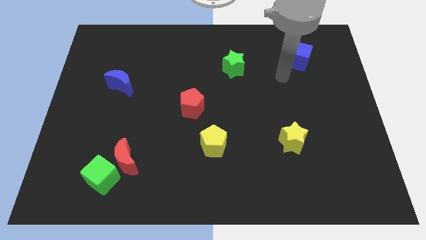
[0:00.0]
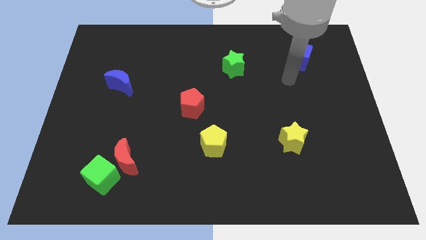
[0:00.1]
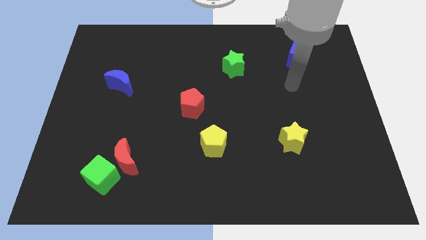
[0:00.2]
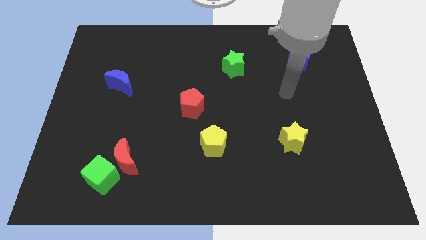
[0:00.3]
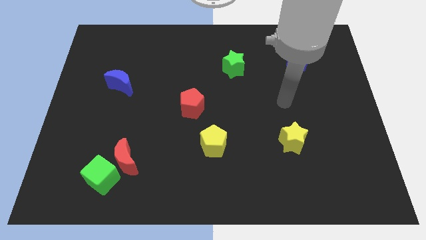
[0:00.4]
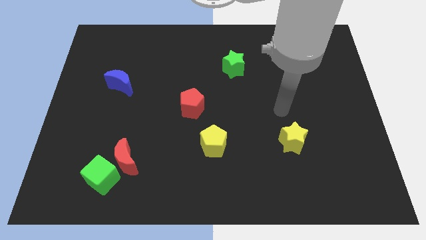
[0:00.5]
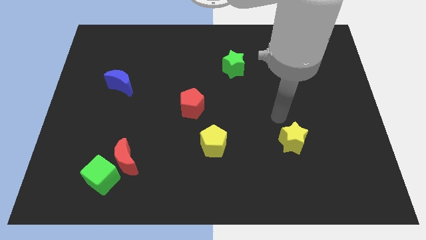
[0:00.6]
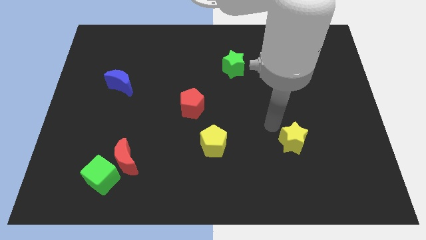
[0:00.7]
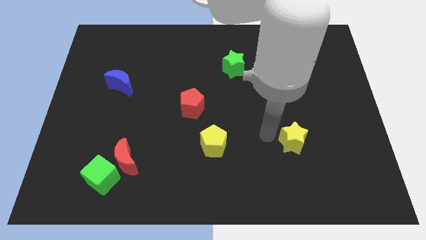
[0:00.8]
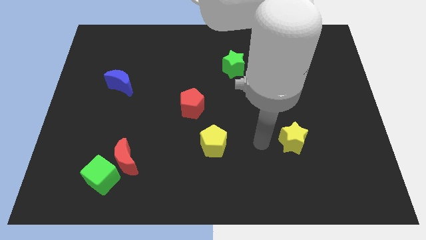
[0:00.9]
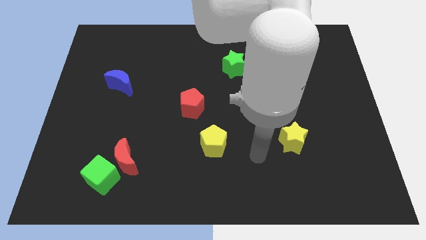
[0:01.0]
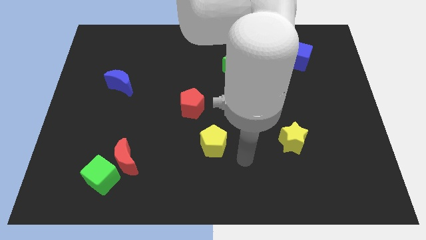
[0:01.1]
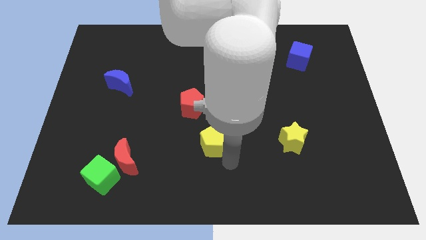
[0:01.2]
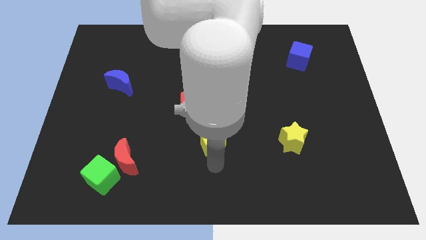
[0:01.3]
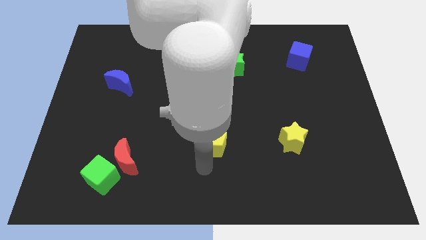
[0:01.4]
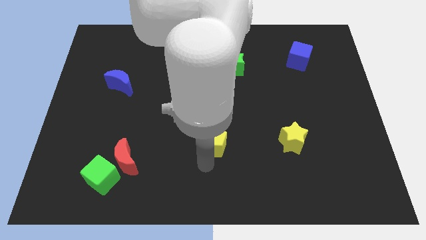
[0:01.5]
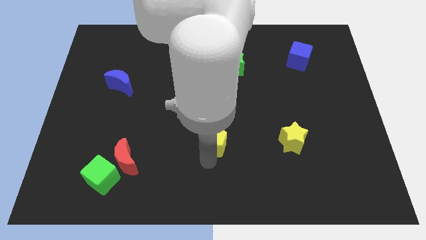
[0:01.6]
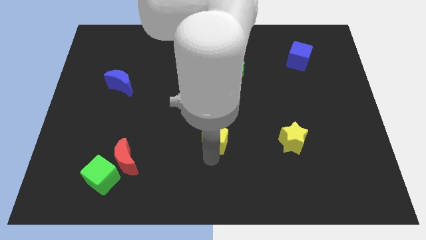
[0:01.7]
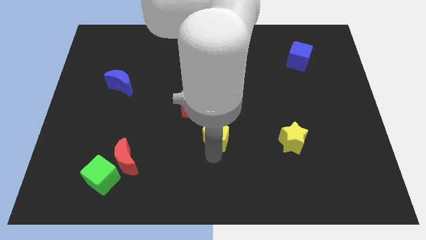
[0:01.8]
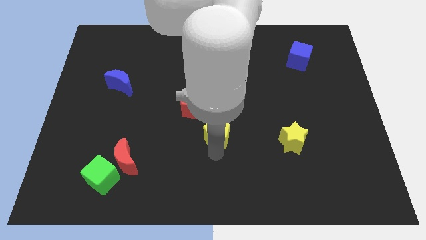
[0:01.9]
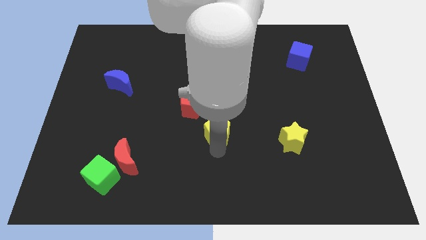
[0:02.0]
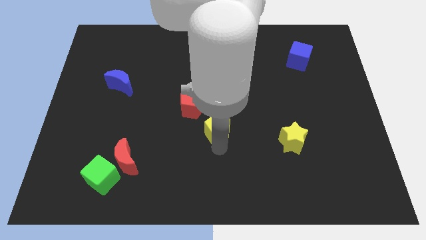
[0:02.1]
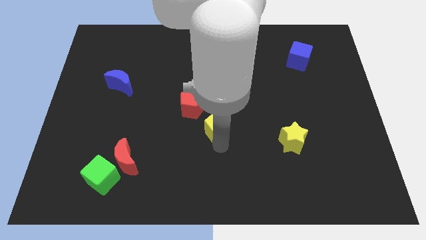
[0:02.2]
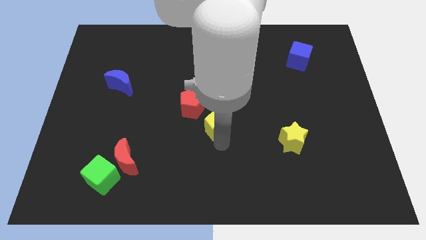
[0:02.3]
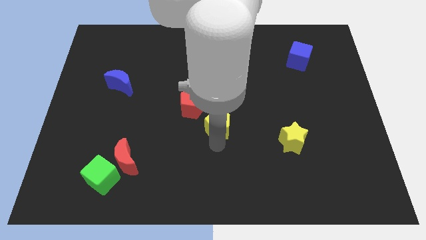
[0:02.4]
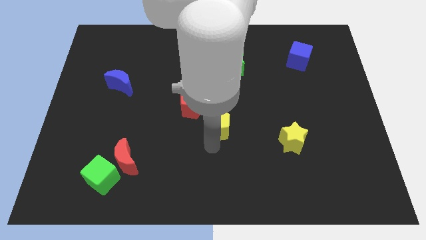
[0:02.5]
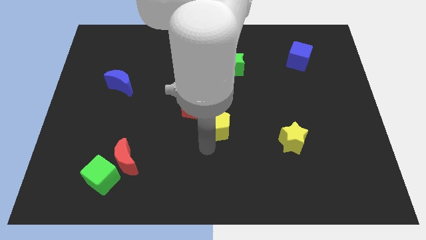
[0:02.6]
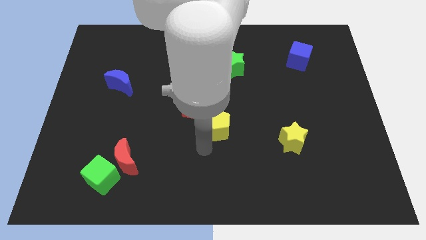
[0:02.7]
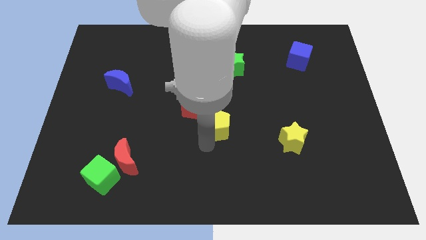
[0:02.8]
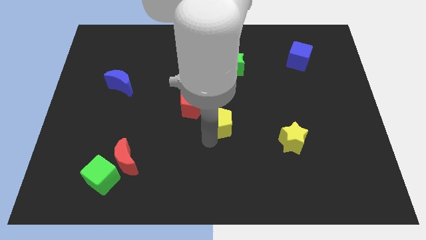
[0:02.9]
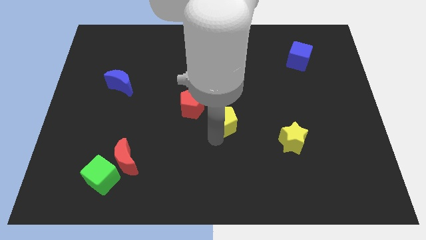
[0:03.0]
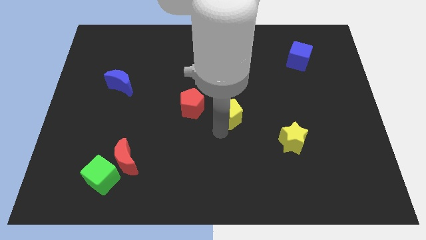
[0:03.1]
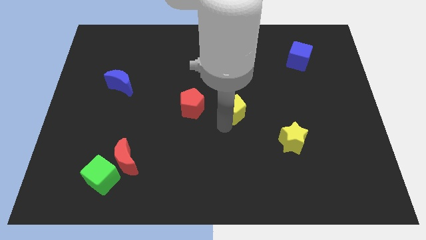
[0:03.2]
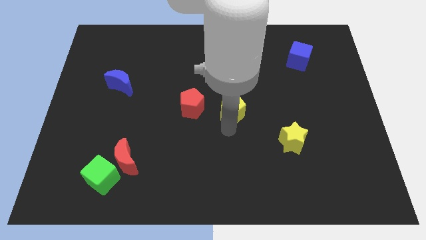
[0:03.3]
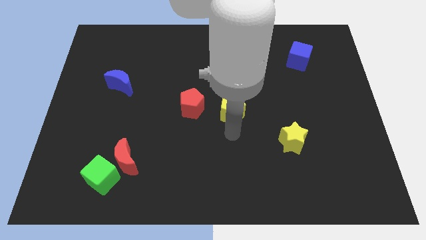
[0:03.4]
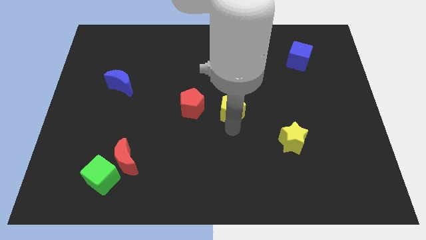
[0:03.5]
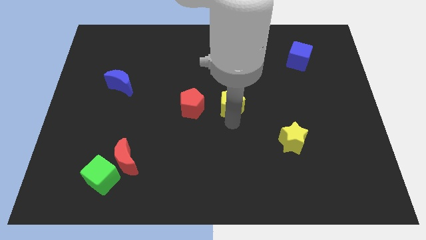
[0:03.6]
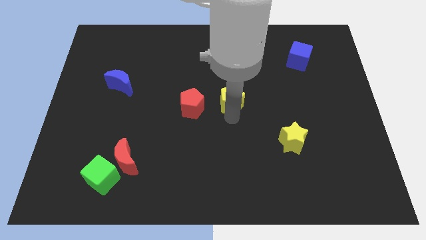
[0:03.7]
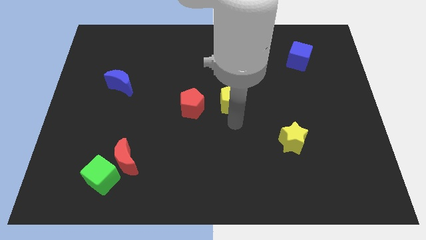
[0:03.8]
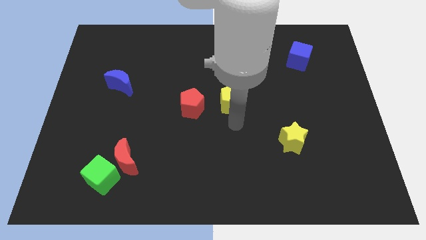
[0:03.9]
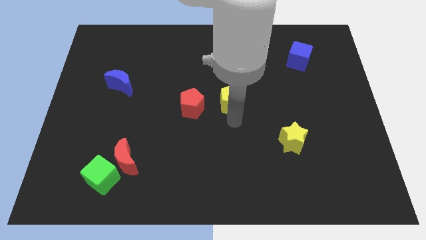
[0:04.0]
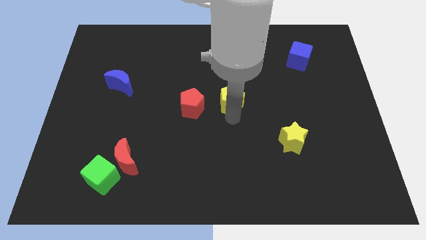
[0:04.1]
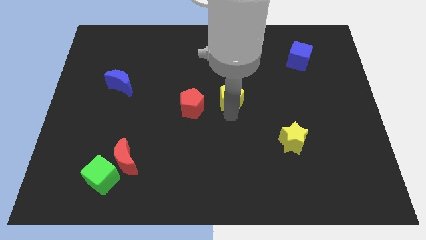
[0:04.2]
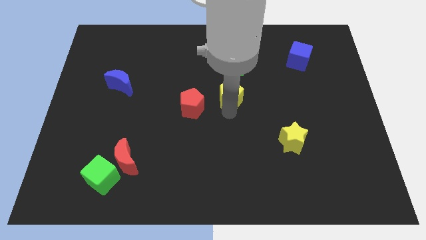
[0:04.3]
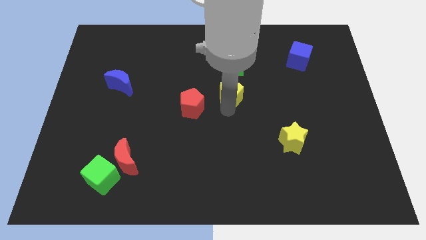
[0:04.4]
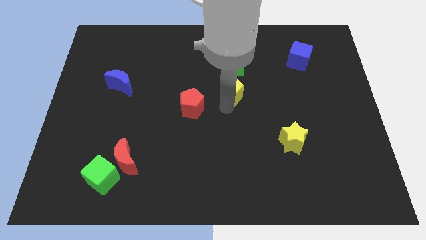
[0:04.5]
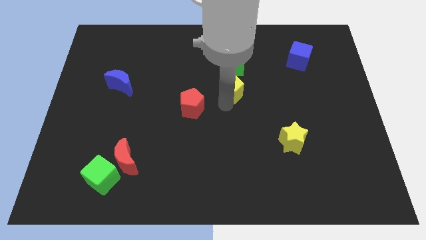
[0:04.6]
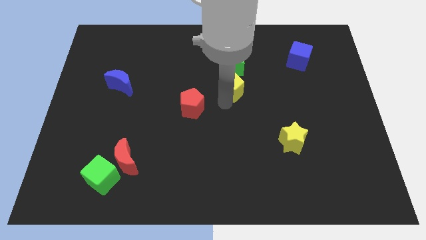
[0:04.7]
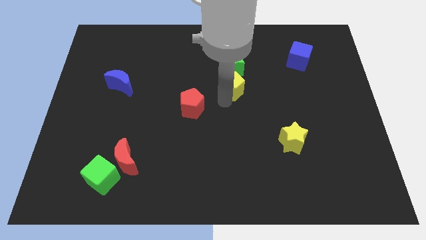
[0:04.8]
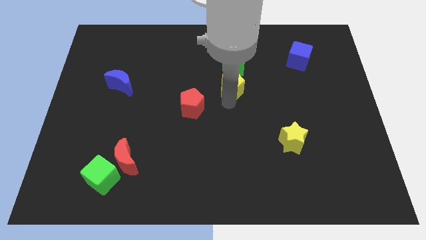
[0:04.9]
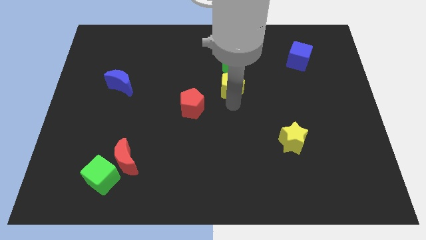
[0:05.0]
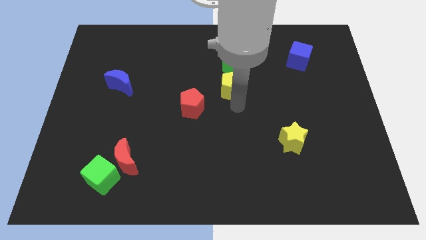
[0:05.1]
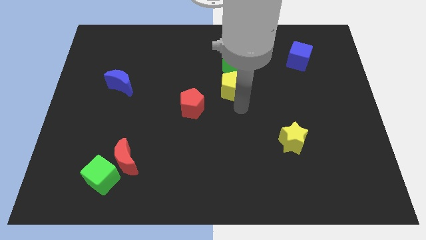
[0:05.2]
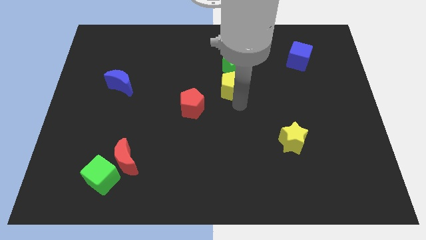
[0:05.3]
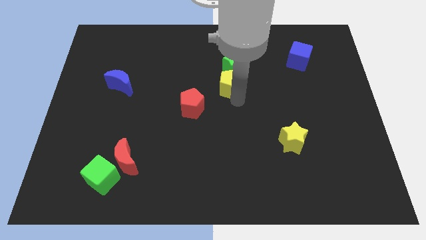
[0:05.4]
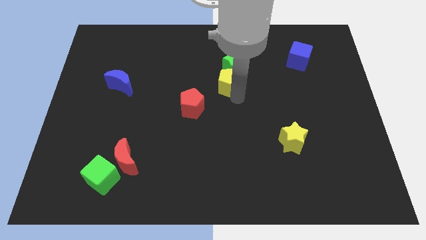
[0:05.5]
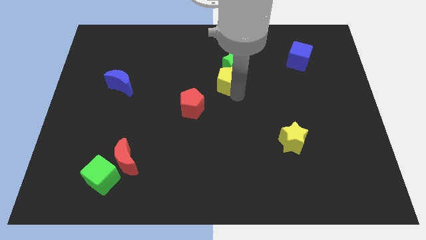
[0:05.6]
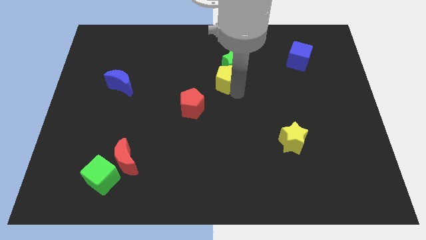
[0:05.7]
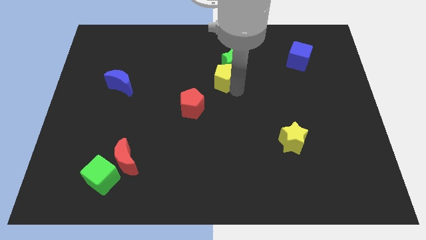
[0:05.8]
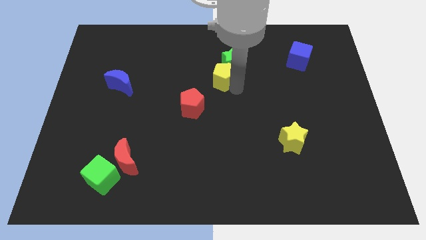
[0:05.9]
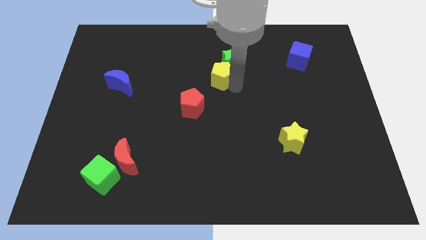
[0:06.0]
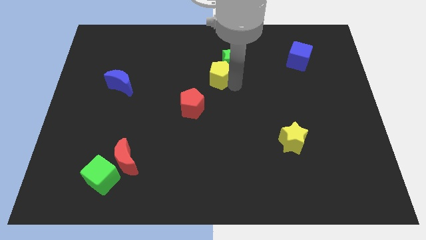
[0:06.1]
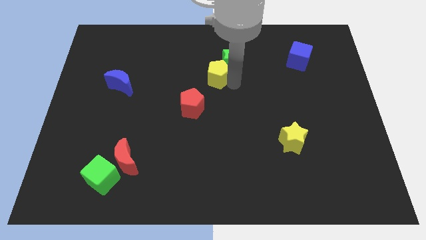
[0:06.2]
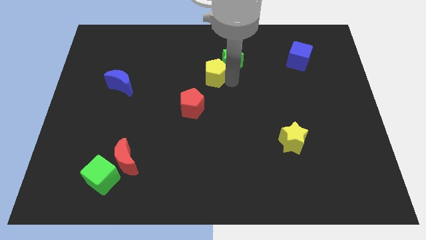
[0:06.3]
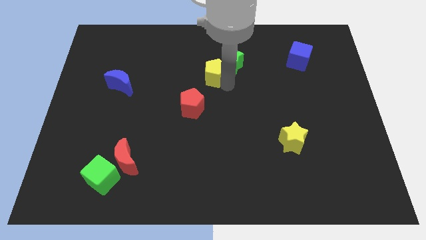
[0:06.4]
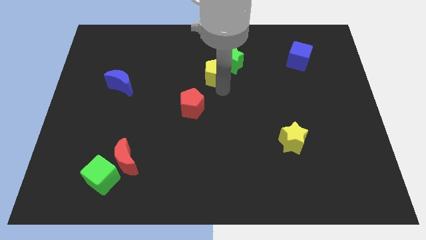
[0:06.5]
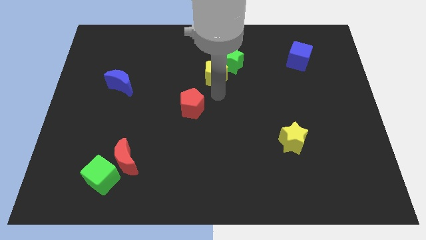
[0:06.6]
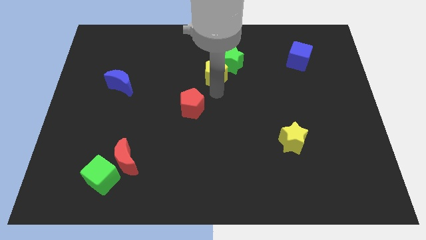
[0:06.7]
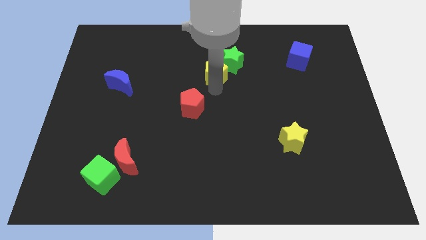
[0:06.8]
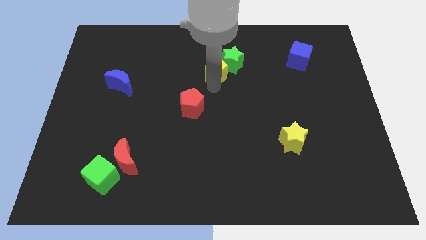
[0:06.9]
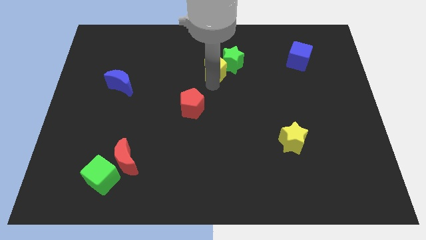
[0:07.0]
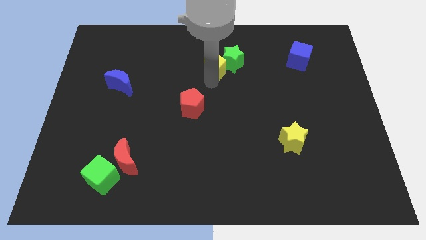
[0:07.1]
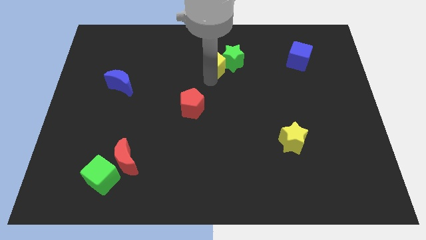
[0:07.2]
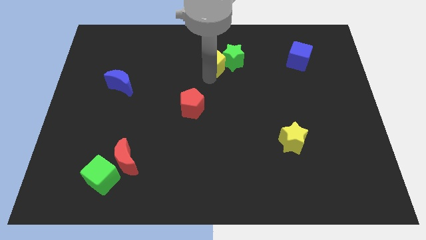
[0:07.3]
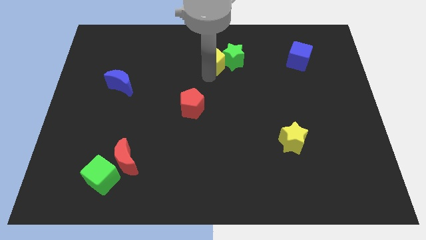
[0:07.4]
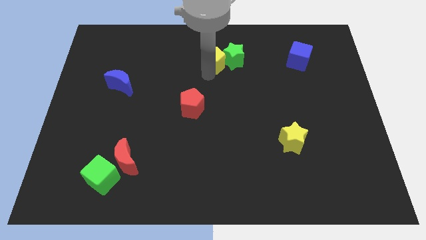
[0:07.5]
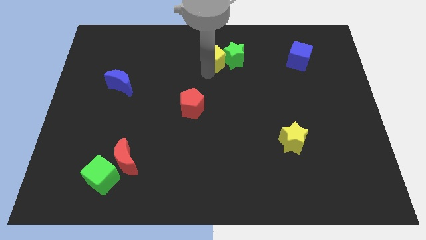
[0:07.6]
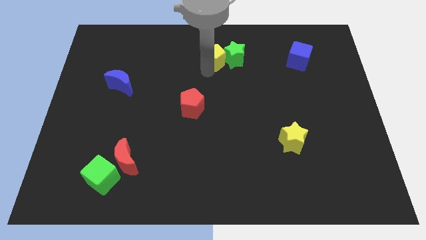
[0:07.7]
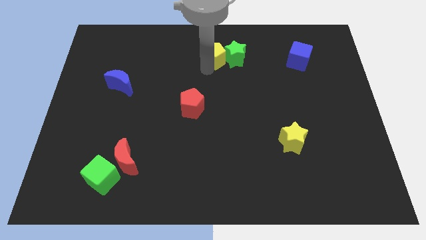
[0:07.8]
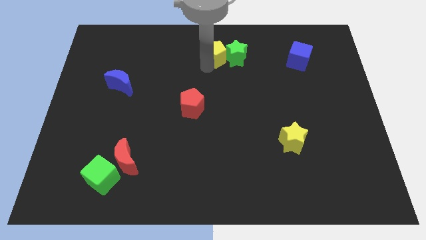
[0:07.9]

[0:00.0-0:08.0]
put the yellow pentagon to the top
